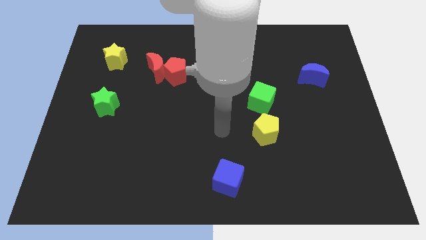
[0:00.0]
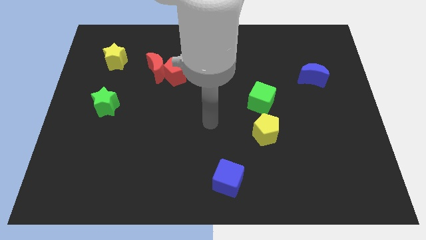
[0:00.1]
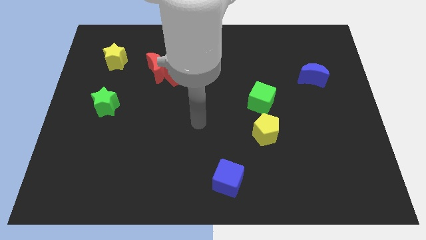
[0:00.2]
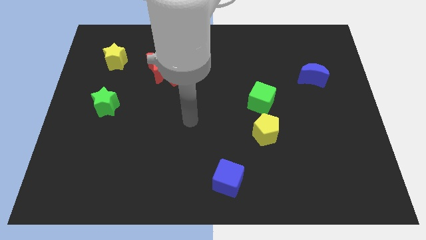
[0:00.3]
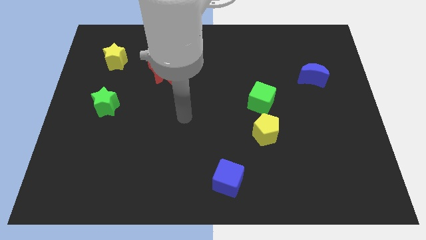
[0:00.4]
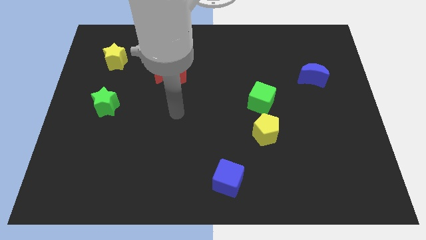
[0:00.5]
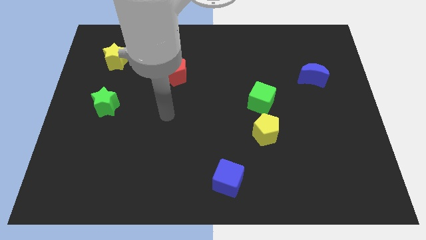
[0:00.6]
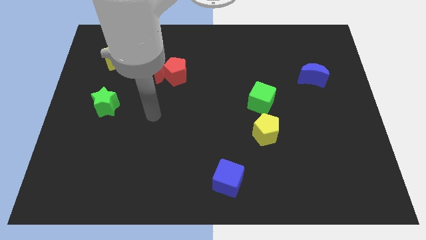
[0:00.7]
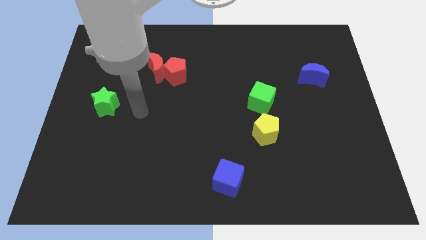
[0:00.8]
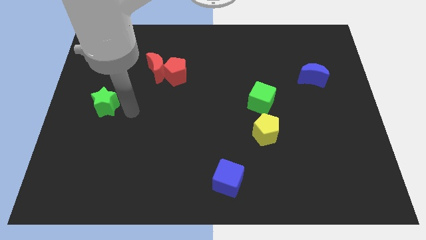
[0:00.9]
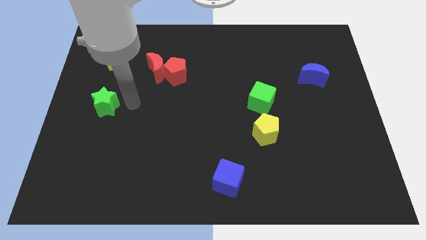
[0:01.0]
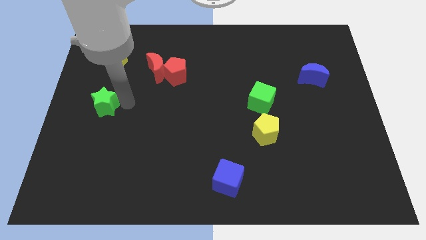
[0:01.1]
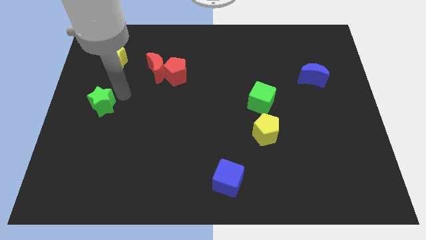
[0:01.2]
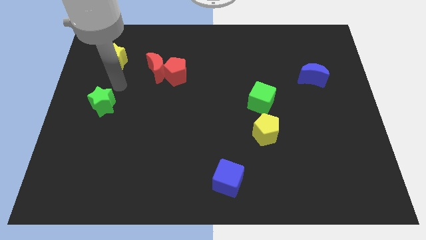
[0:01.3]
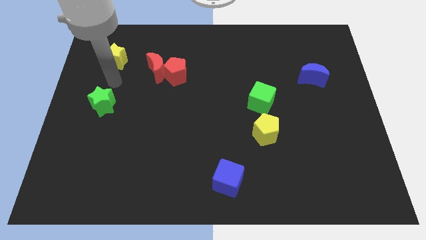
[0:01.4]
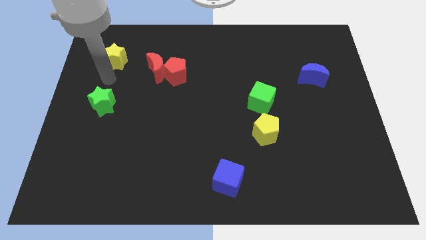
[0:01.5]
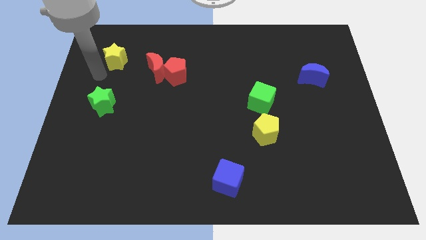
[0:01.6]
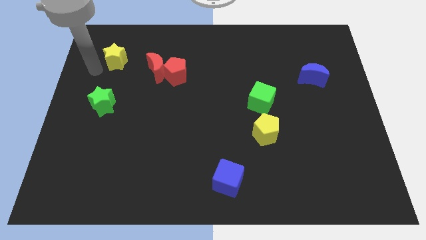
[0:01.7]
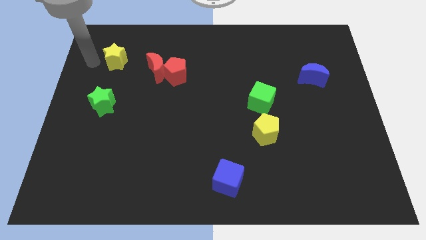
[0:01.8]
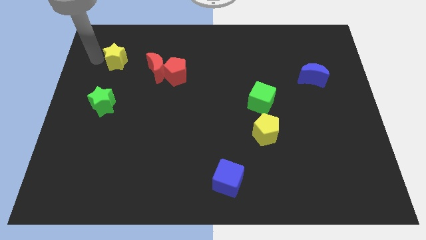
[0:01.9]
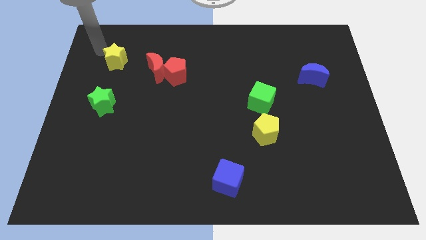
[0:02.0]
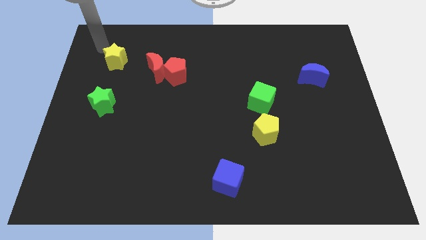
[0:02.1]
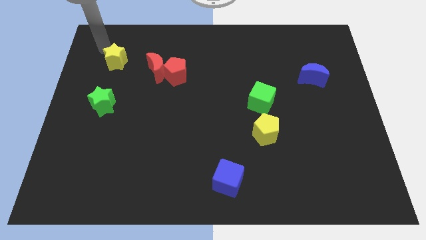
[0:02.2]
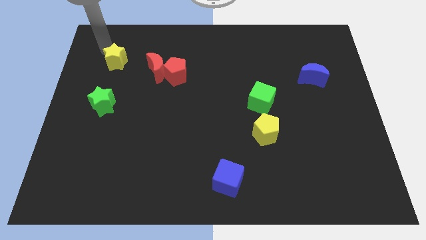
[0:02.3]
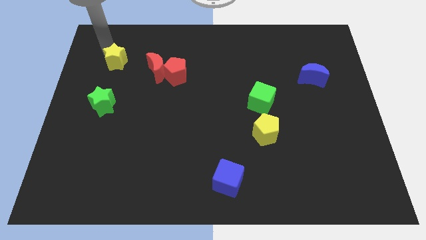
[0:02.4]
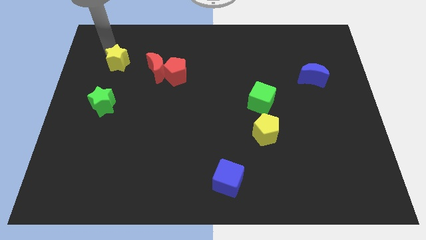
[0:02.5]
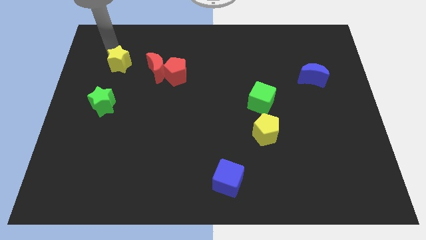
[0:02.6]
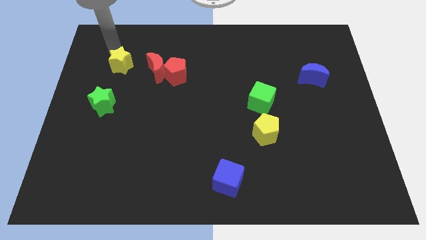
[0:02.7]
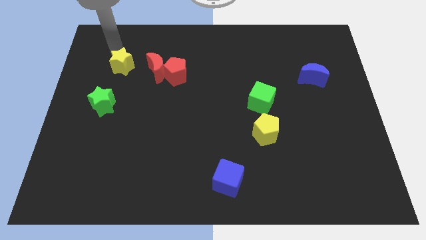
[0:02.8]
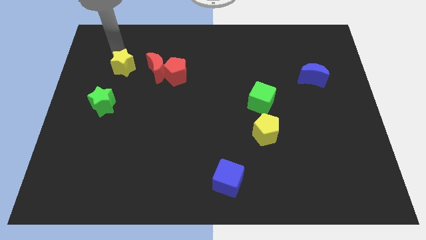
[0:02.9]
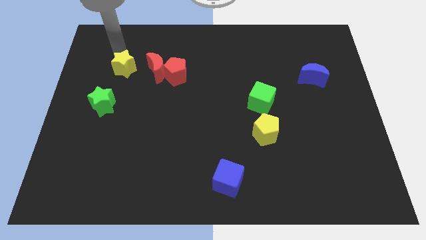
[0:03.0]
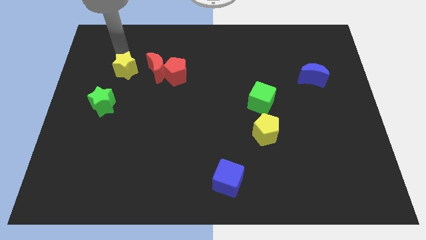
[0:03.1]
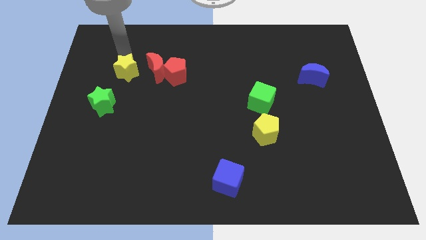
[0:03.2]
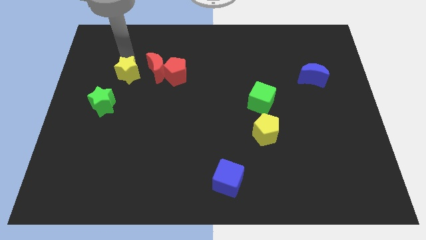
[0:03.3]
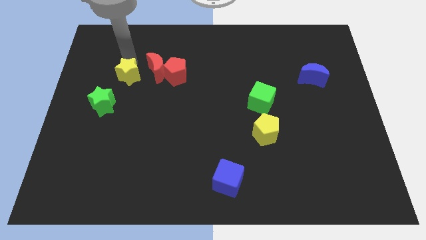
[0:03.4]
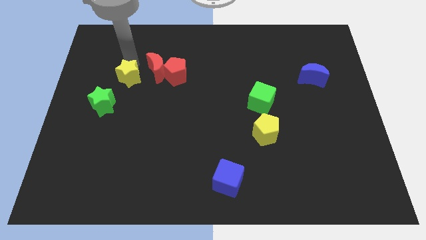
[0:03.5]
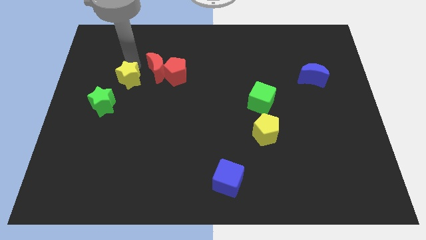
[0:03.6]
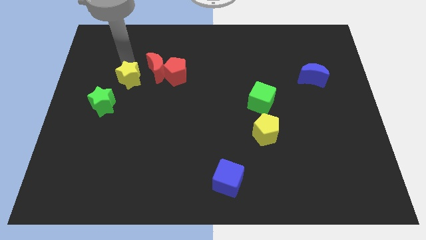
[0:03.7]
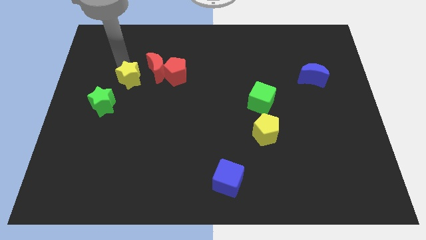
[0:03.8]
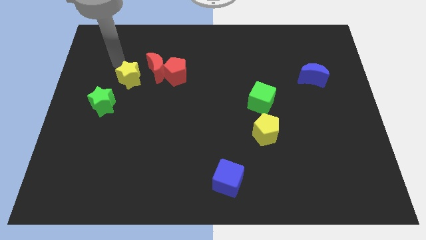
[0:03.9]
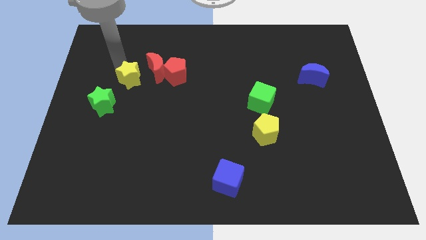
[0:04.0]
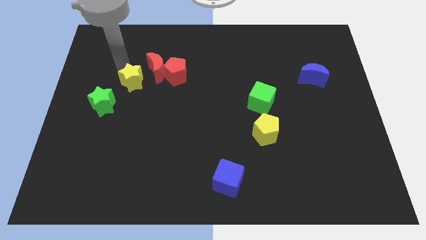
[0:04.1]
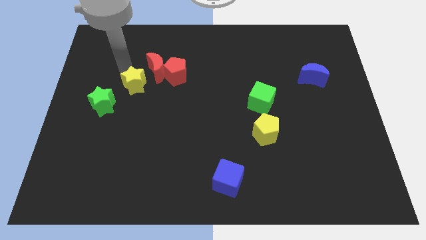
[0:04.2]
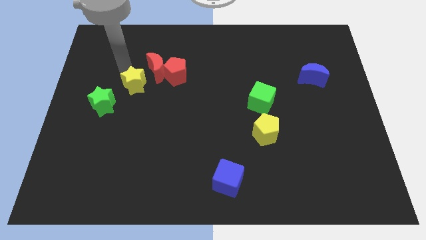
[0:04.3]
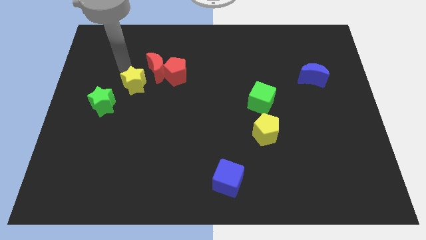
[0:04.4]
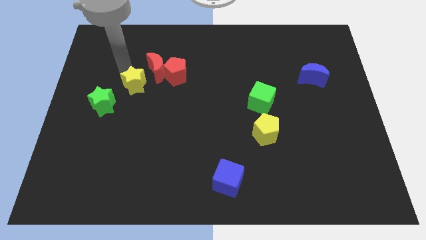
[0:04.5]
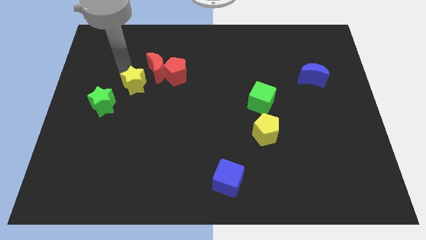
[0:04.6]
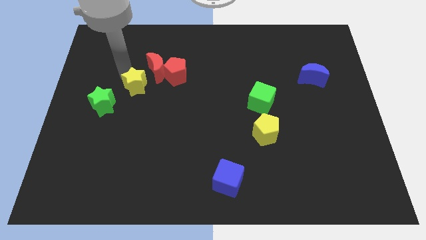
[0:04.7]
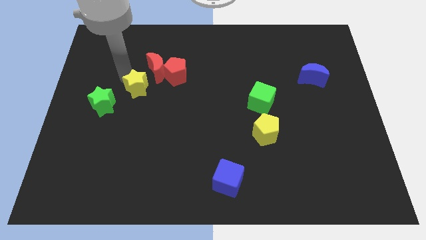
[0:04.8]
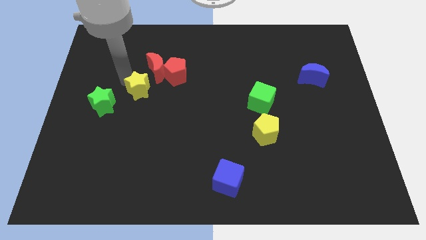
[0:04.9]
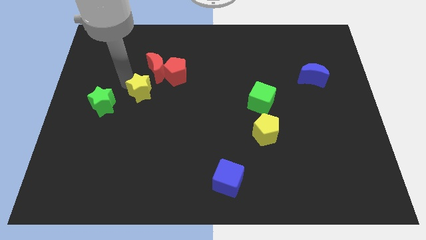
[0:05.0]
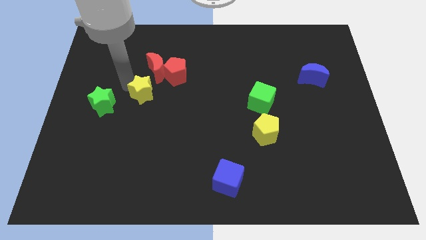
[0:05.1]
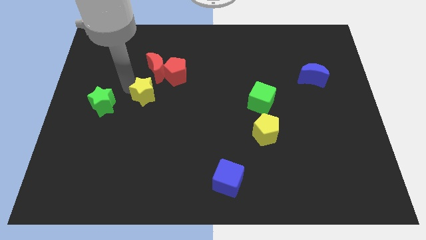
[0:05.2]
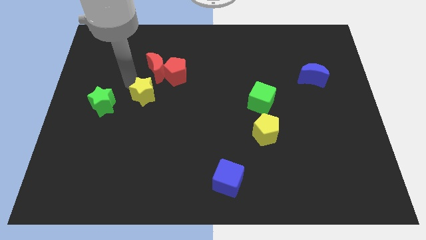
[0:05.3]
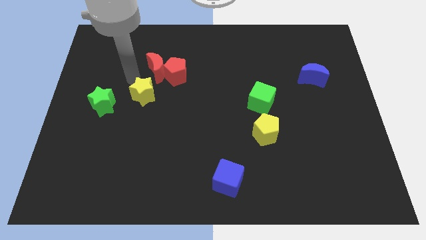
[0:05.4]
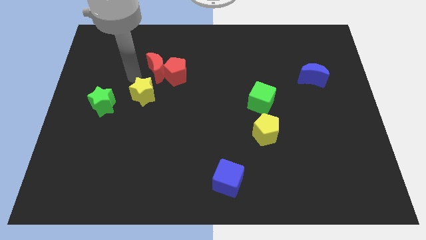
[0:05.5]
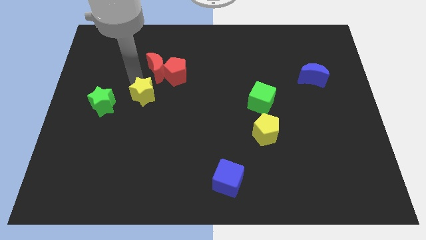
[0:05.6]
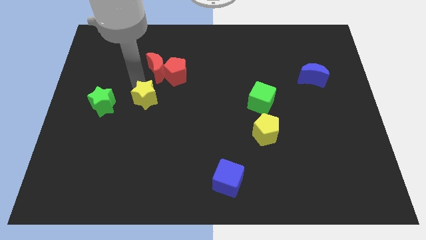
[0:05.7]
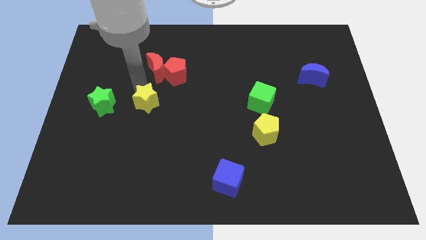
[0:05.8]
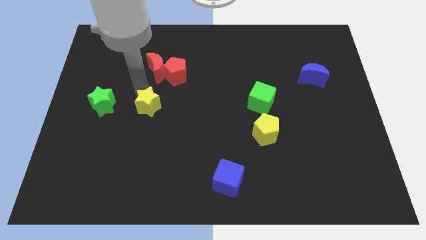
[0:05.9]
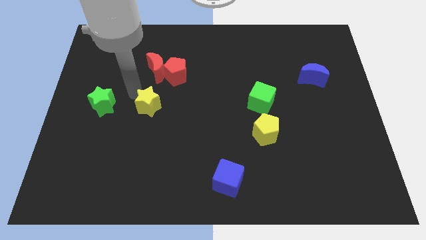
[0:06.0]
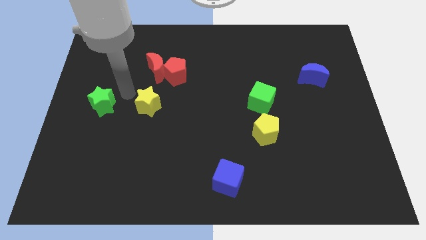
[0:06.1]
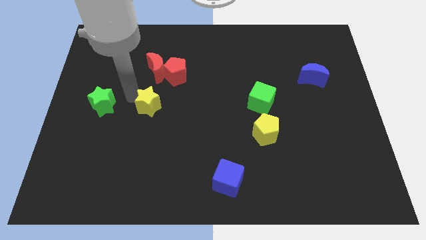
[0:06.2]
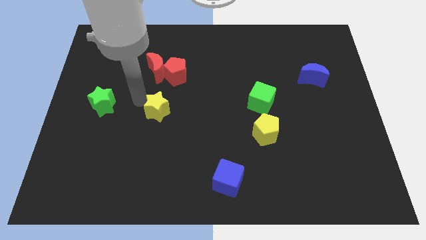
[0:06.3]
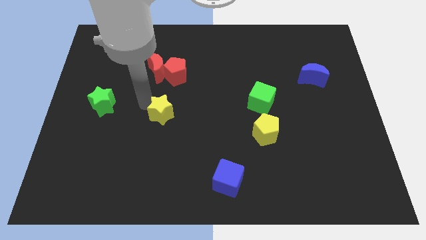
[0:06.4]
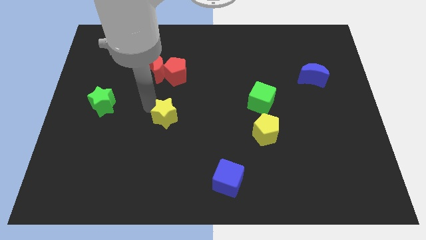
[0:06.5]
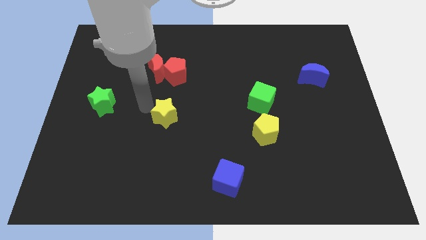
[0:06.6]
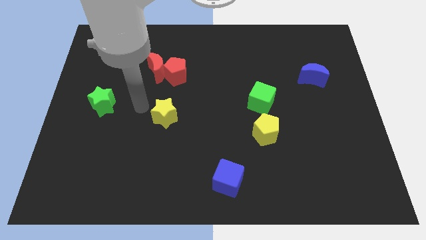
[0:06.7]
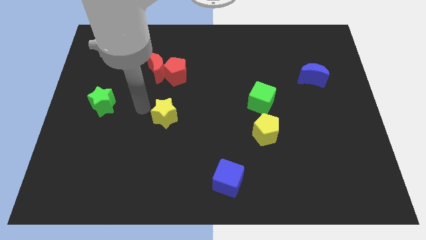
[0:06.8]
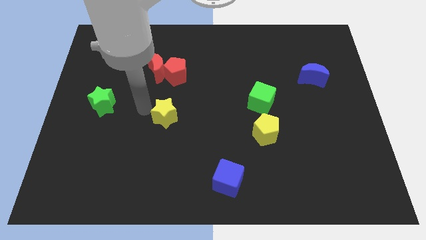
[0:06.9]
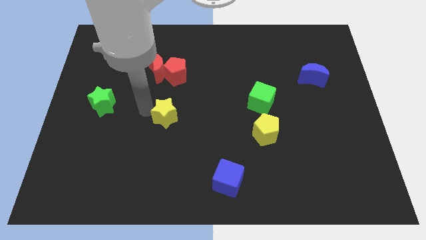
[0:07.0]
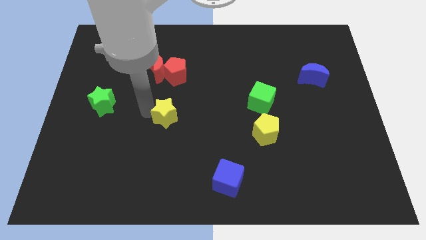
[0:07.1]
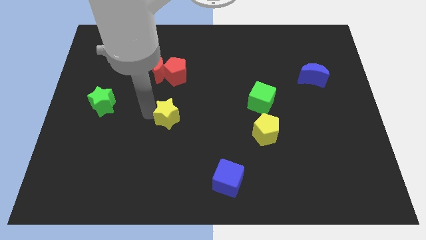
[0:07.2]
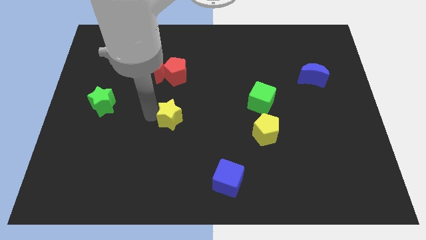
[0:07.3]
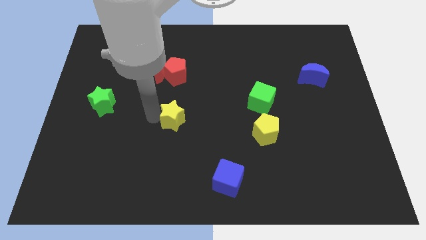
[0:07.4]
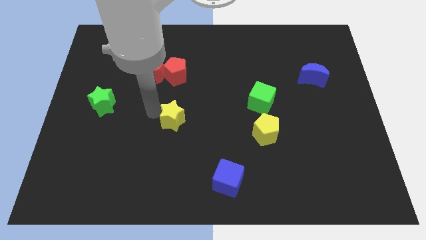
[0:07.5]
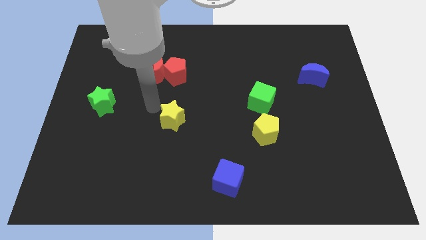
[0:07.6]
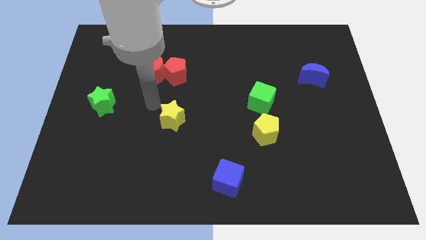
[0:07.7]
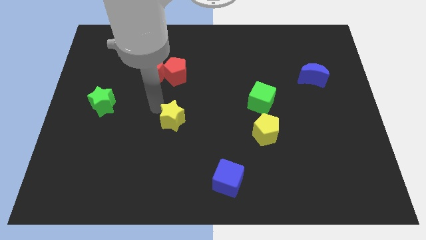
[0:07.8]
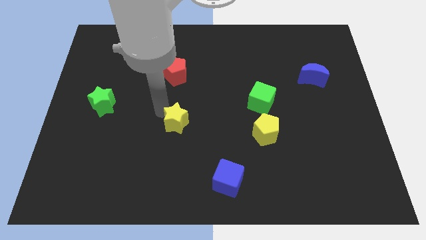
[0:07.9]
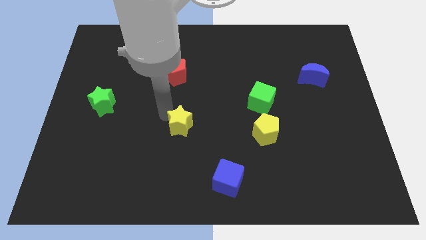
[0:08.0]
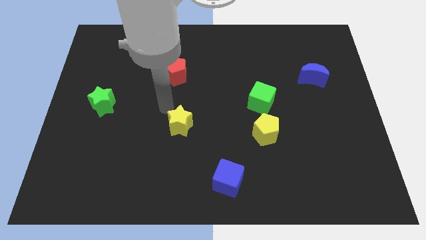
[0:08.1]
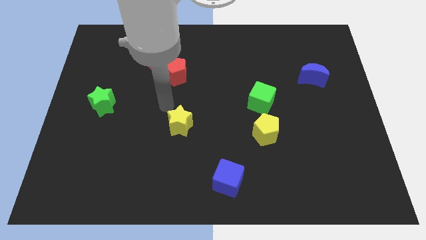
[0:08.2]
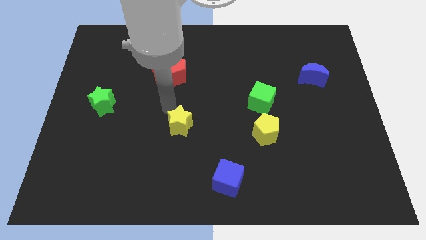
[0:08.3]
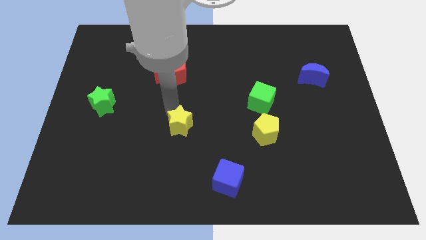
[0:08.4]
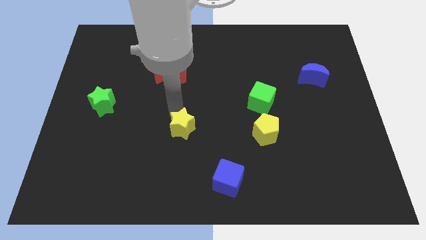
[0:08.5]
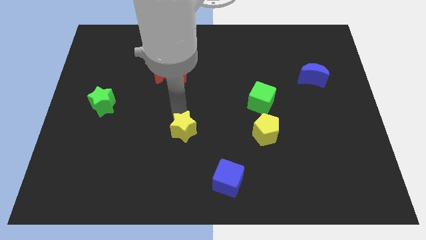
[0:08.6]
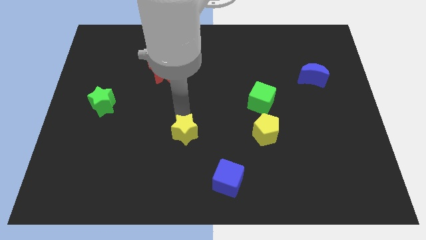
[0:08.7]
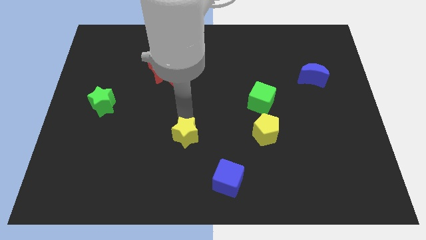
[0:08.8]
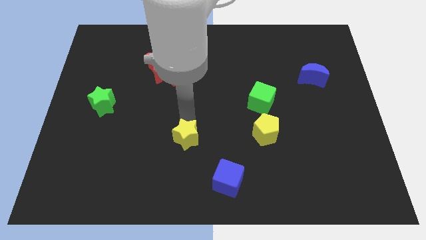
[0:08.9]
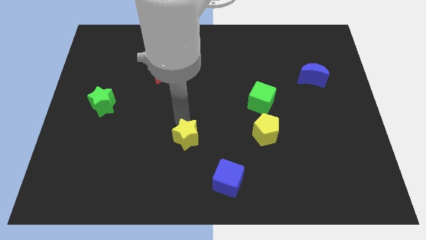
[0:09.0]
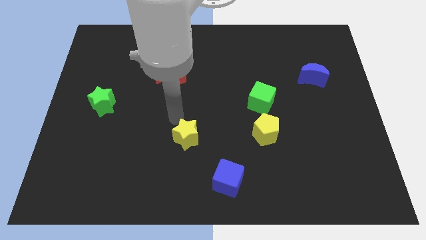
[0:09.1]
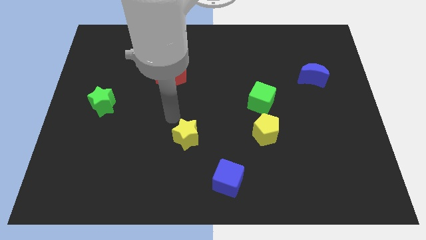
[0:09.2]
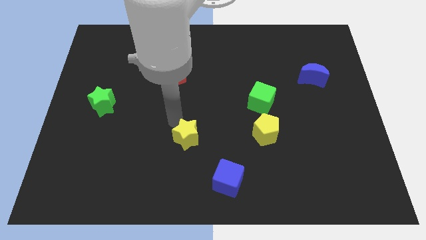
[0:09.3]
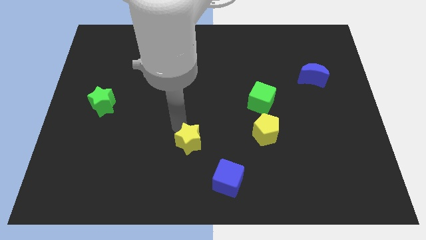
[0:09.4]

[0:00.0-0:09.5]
move the yellow star to the top left of the blue cube
